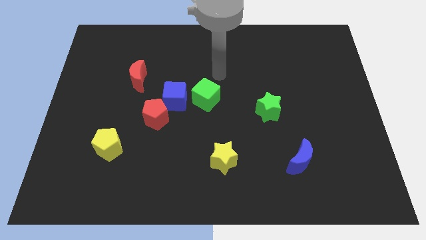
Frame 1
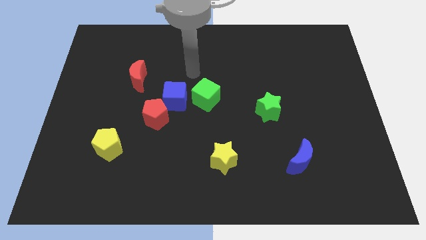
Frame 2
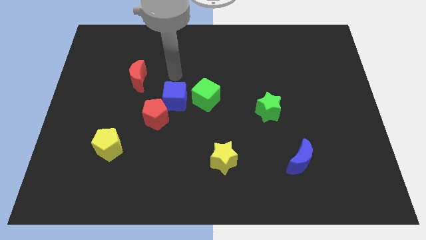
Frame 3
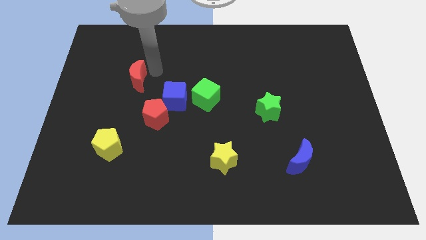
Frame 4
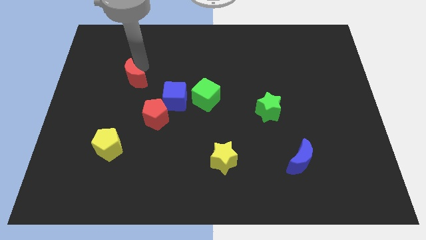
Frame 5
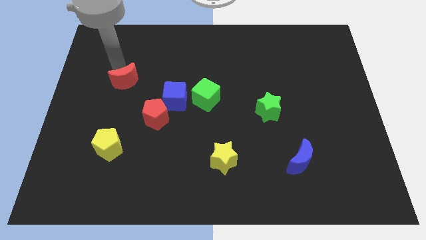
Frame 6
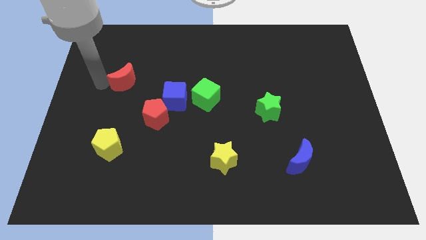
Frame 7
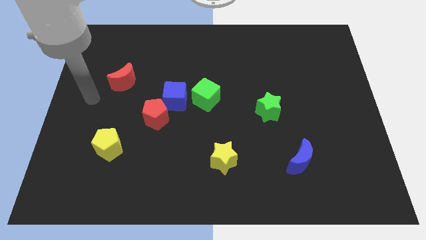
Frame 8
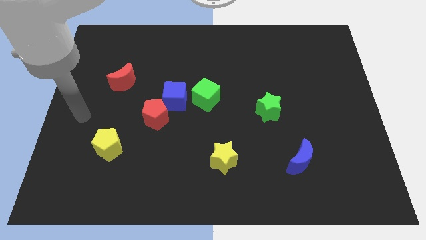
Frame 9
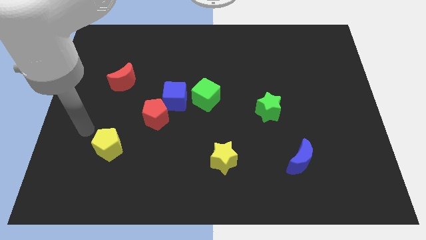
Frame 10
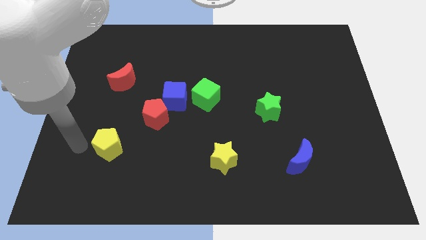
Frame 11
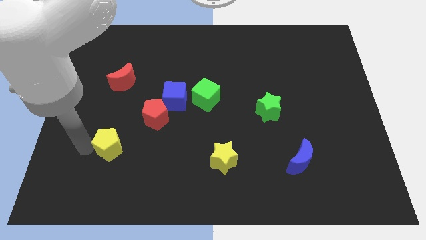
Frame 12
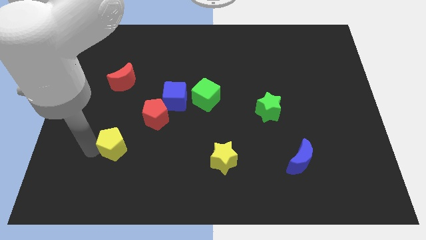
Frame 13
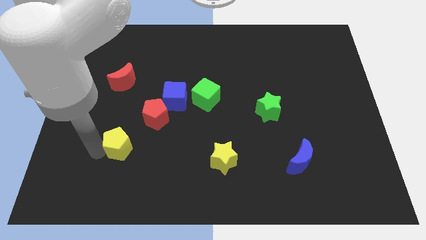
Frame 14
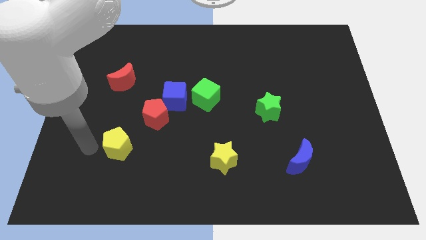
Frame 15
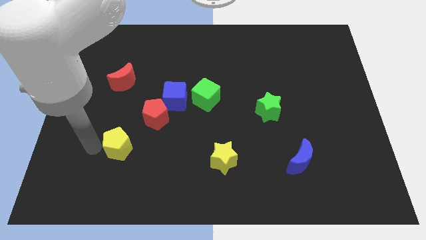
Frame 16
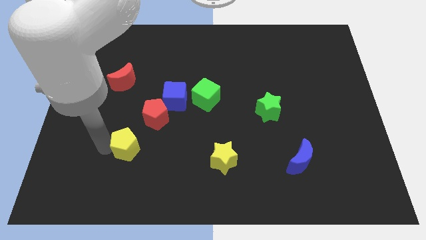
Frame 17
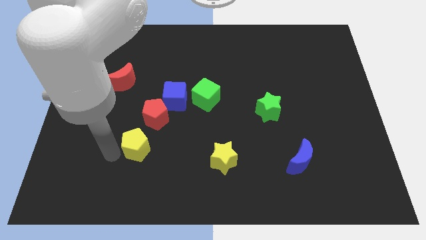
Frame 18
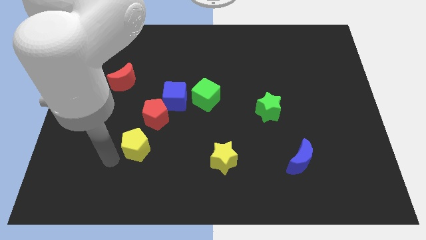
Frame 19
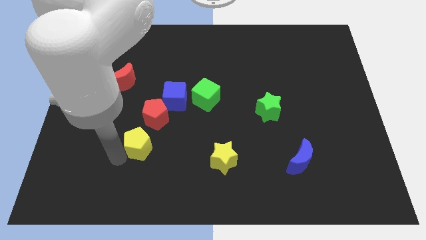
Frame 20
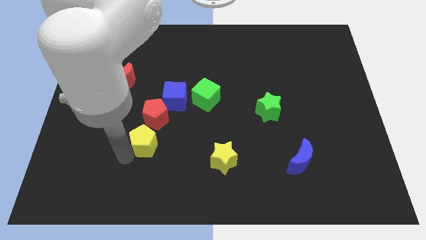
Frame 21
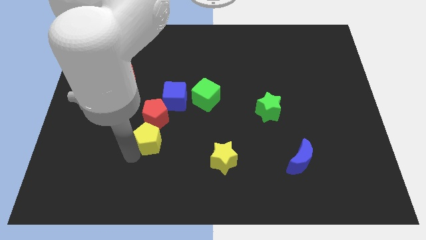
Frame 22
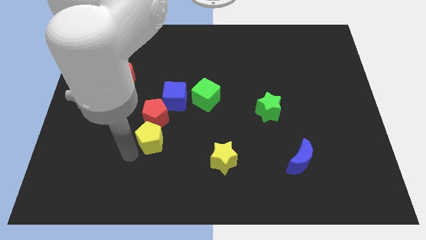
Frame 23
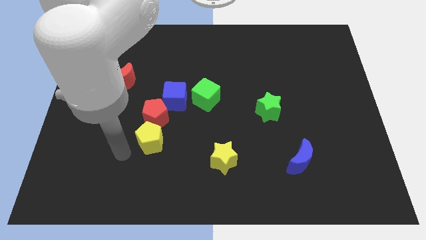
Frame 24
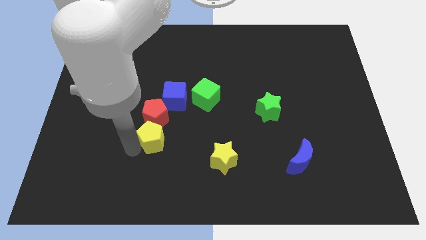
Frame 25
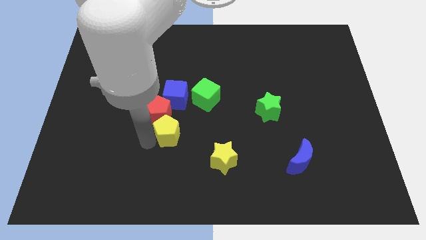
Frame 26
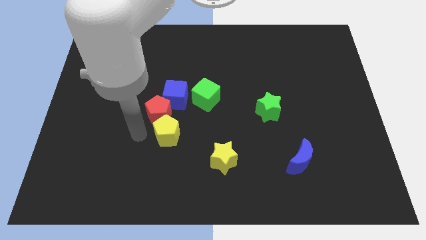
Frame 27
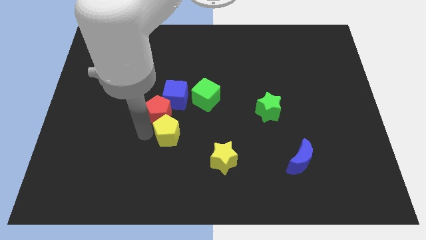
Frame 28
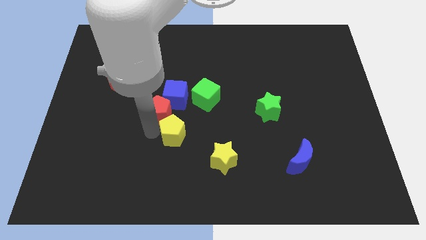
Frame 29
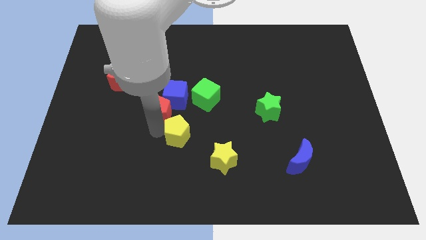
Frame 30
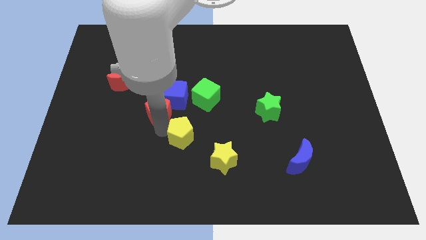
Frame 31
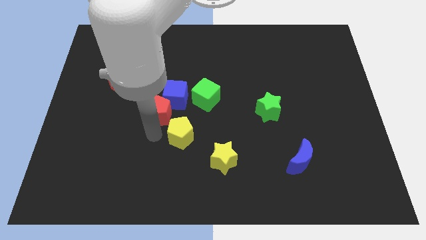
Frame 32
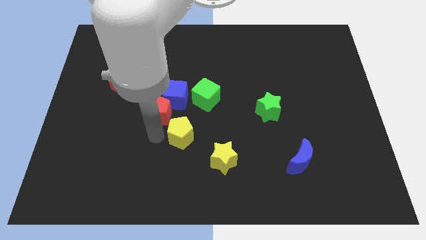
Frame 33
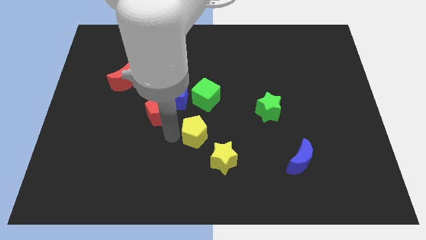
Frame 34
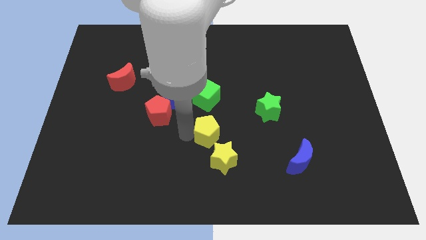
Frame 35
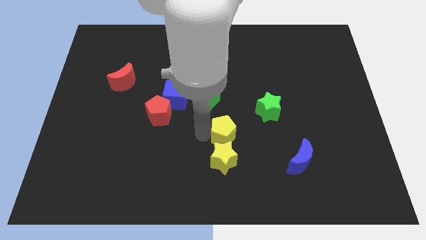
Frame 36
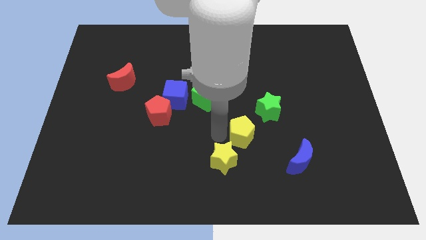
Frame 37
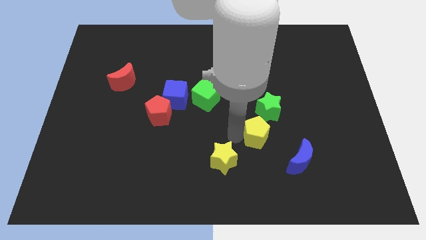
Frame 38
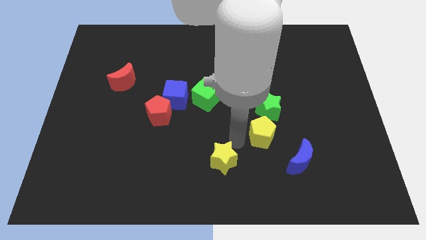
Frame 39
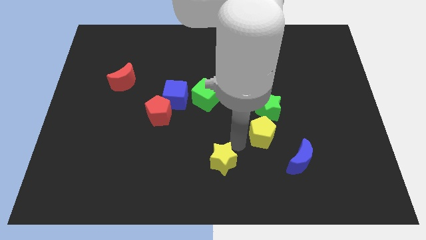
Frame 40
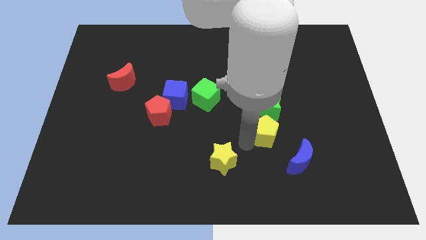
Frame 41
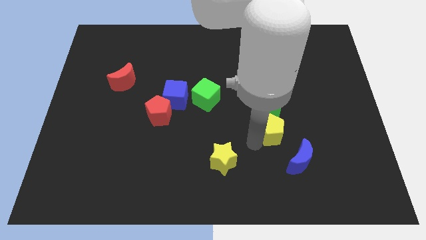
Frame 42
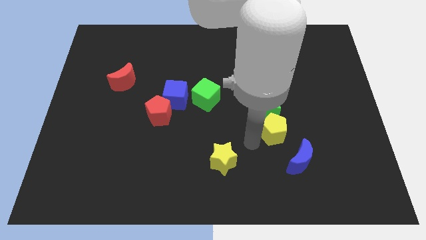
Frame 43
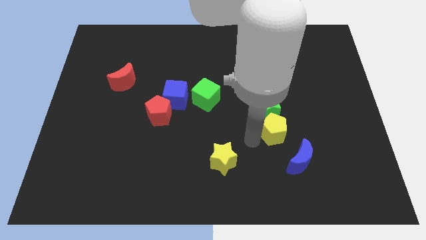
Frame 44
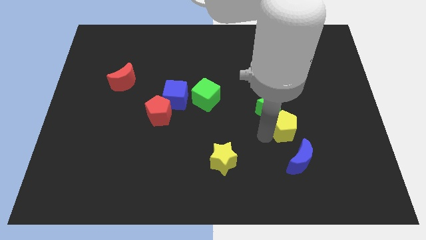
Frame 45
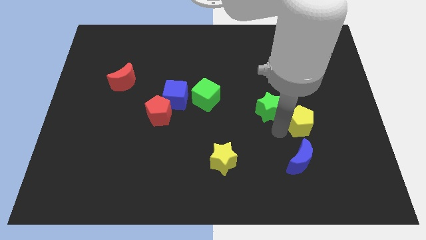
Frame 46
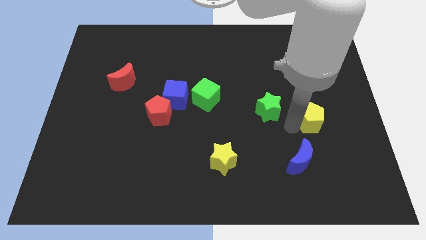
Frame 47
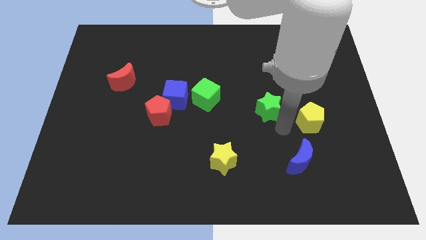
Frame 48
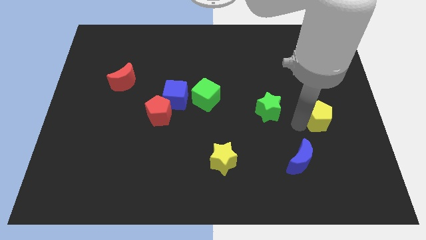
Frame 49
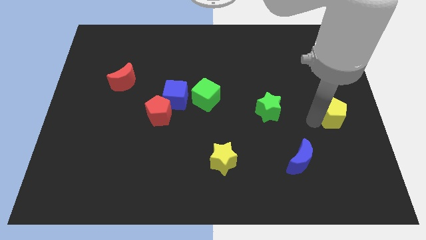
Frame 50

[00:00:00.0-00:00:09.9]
push the yellow pentagon to the right side of the board

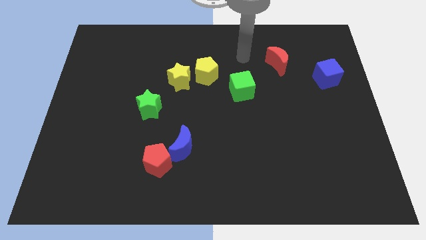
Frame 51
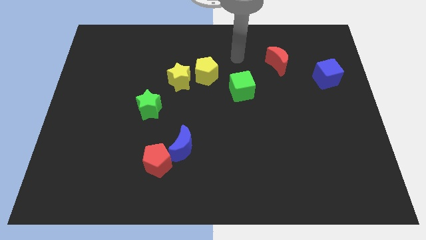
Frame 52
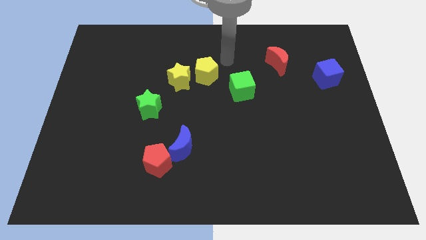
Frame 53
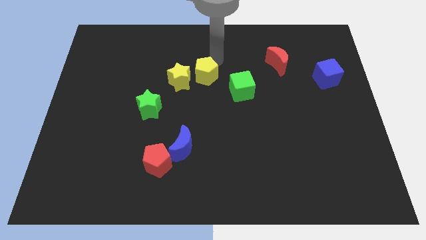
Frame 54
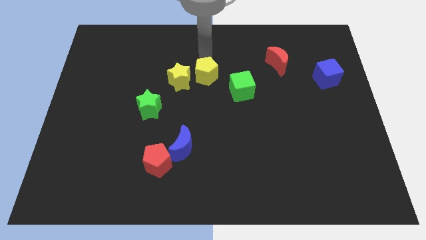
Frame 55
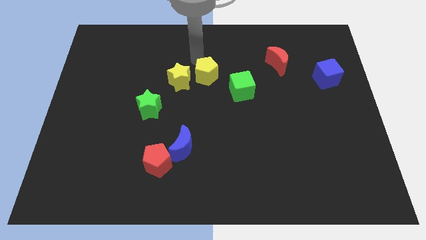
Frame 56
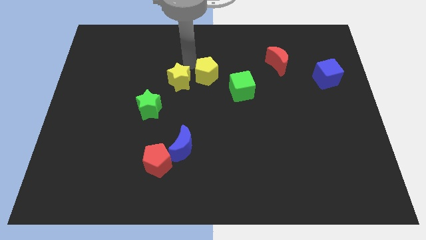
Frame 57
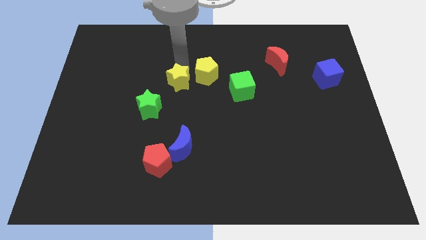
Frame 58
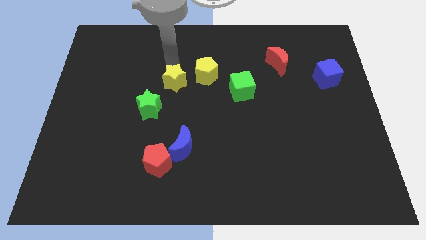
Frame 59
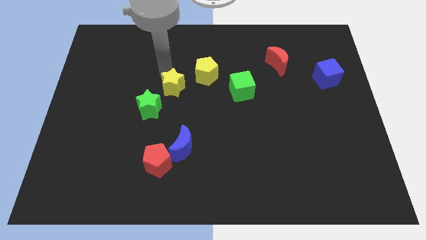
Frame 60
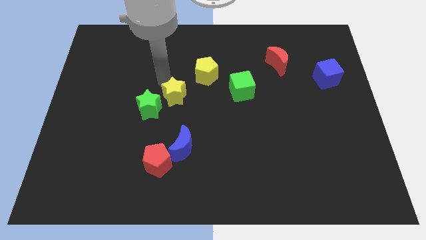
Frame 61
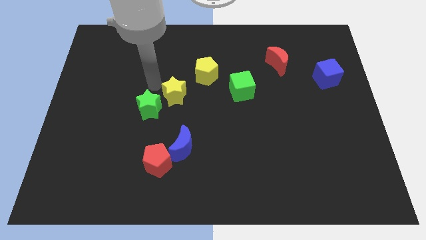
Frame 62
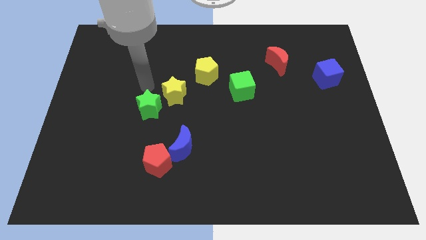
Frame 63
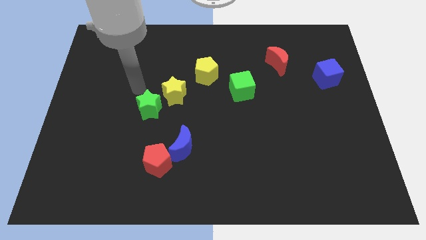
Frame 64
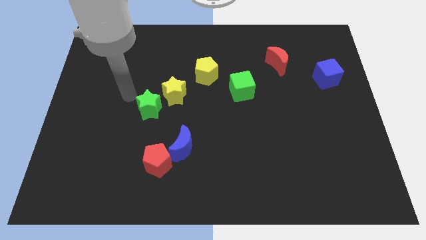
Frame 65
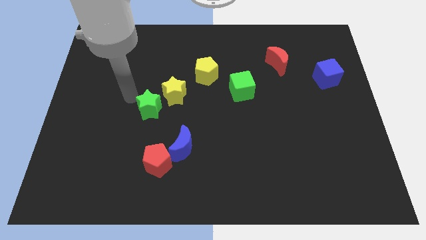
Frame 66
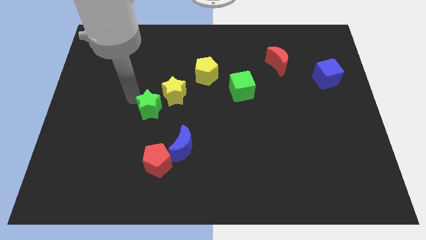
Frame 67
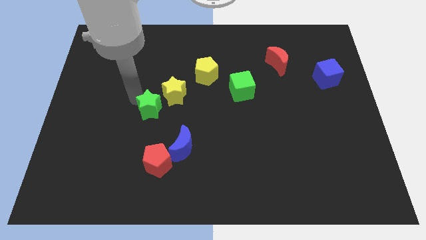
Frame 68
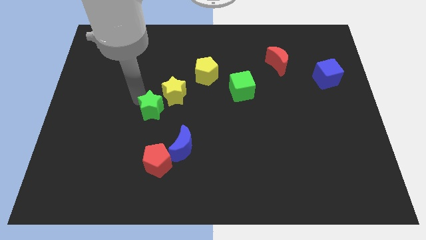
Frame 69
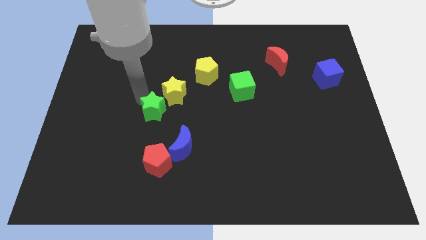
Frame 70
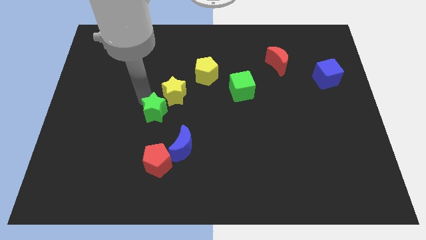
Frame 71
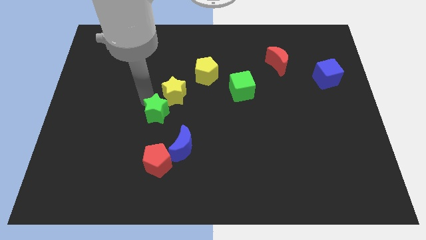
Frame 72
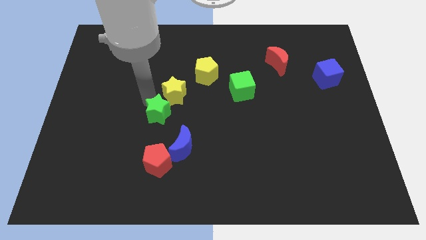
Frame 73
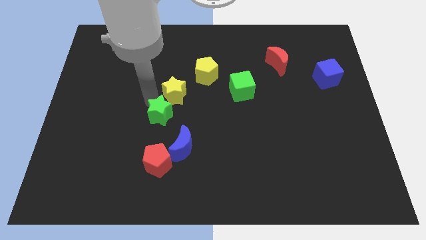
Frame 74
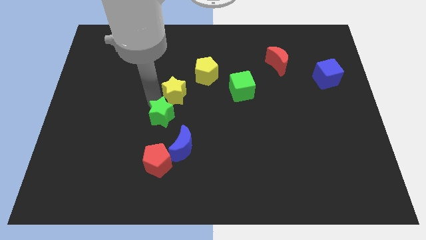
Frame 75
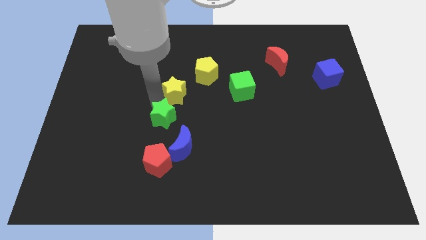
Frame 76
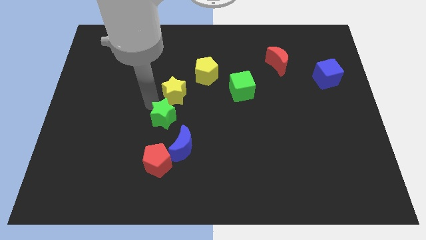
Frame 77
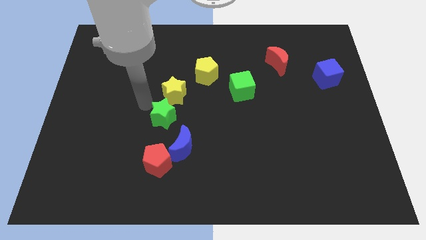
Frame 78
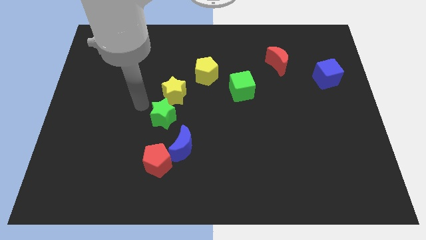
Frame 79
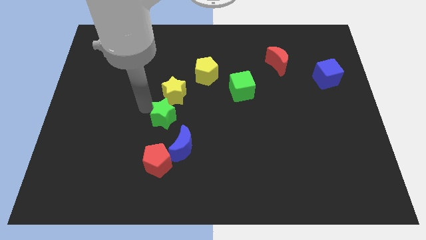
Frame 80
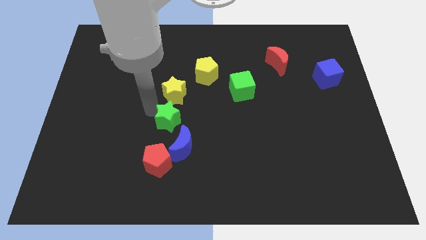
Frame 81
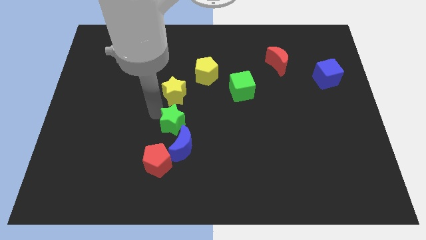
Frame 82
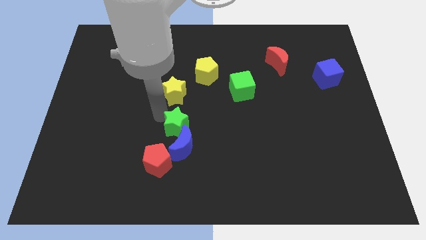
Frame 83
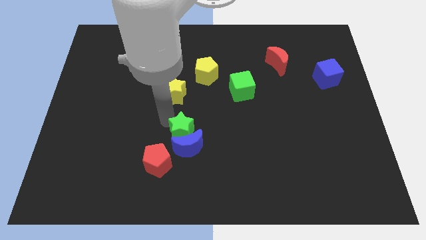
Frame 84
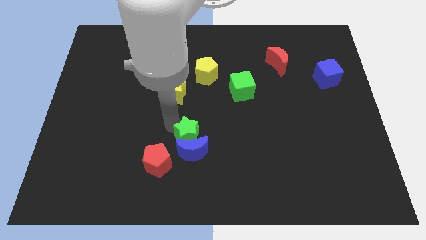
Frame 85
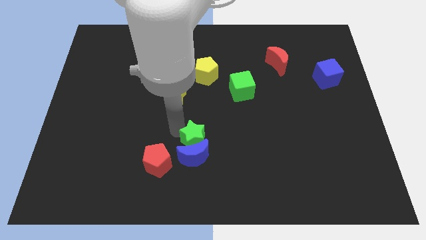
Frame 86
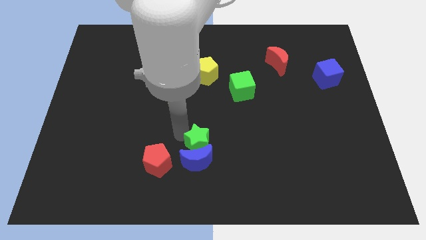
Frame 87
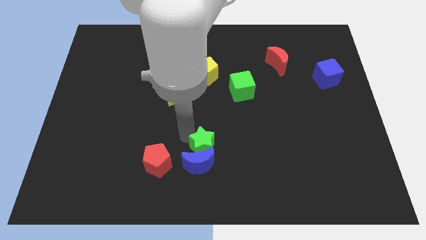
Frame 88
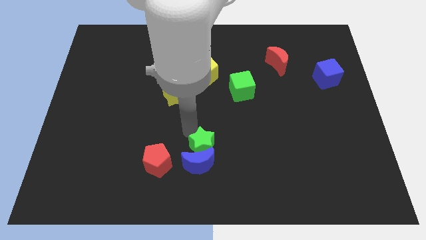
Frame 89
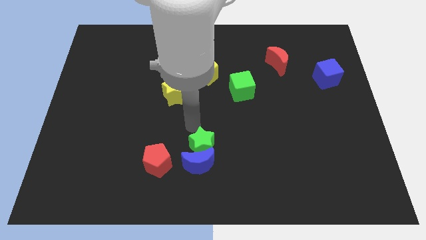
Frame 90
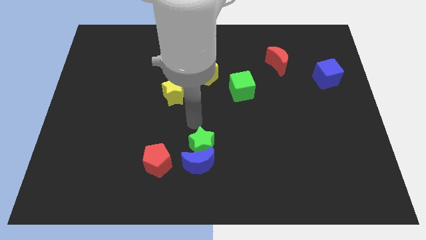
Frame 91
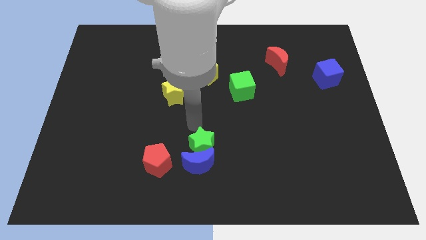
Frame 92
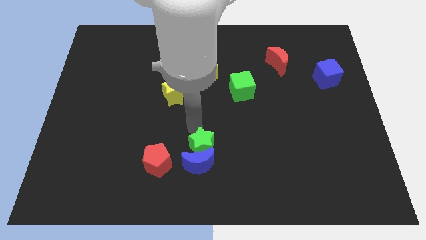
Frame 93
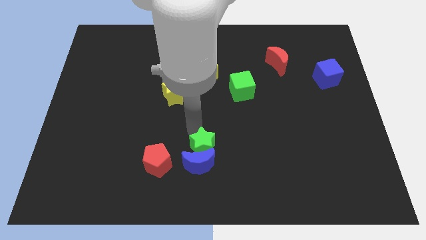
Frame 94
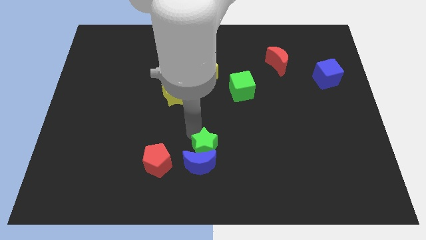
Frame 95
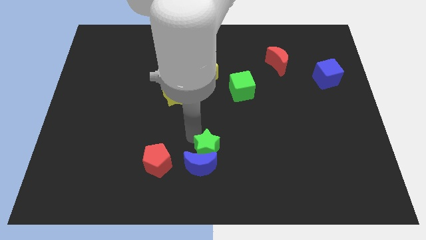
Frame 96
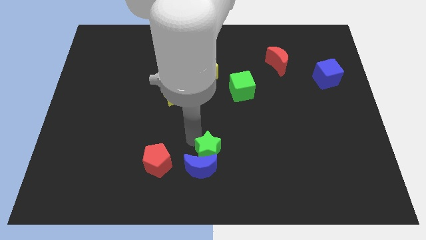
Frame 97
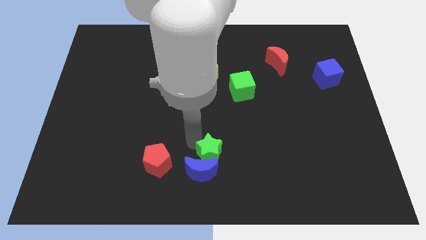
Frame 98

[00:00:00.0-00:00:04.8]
put the green star to the bottom side
